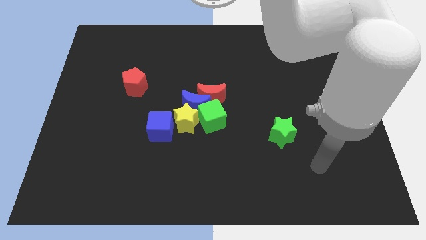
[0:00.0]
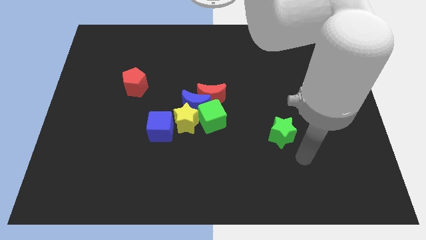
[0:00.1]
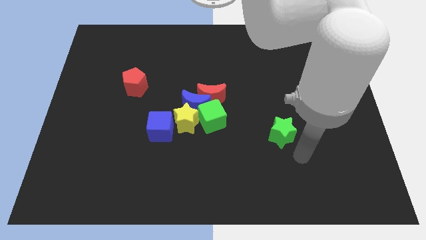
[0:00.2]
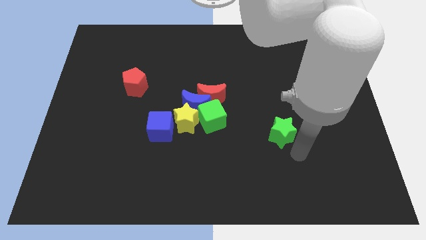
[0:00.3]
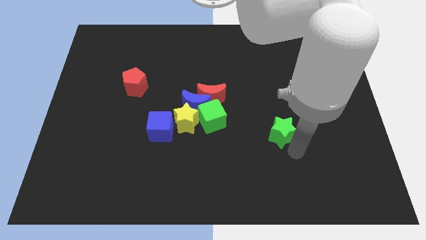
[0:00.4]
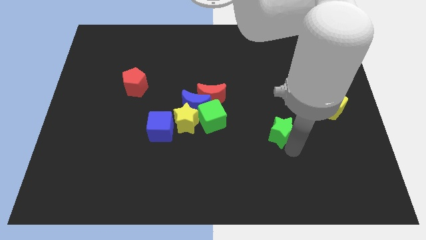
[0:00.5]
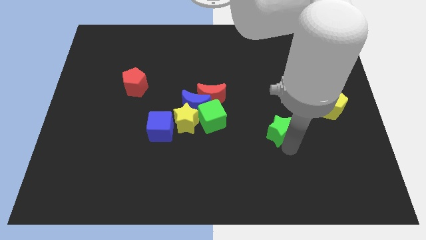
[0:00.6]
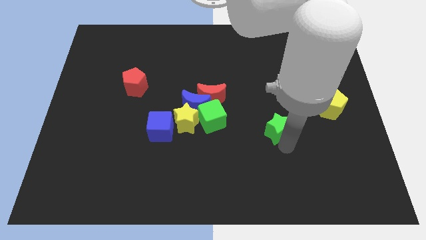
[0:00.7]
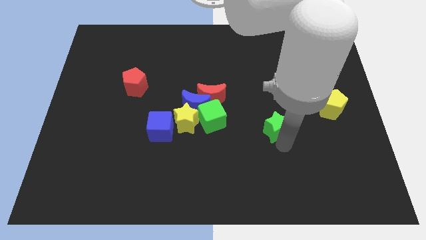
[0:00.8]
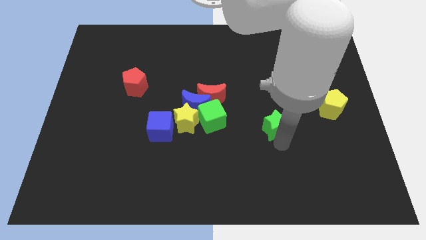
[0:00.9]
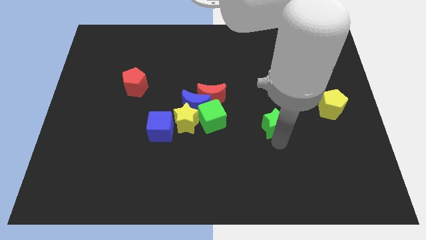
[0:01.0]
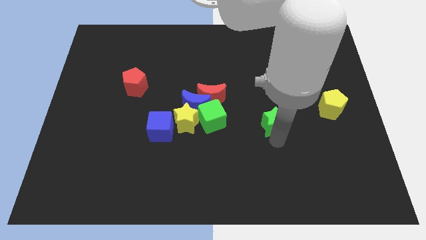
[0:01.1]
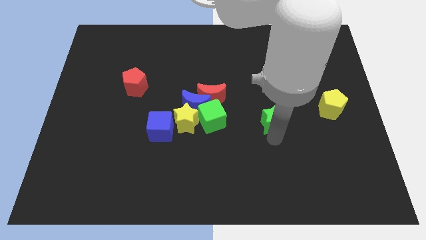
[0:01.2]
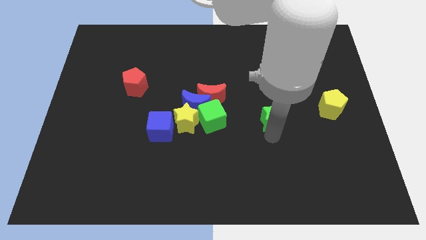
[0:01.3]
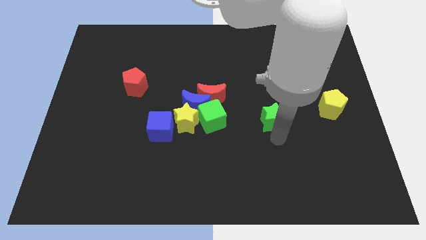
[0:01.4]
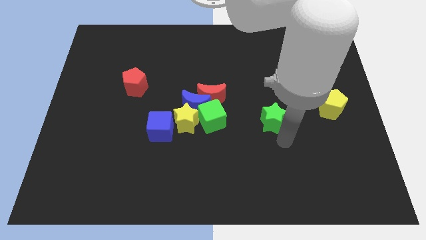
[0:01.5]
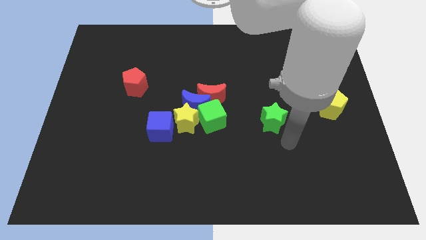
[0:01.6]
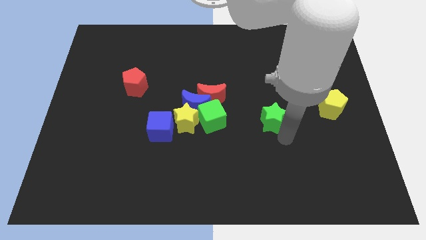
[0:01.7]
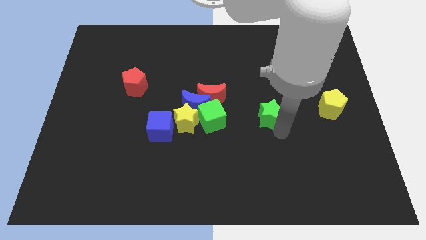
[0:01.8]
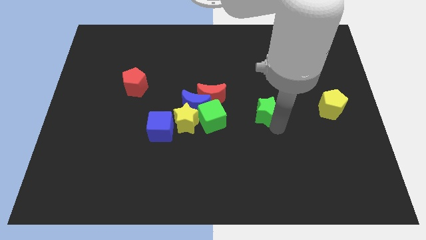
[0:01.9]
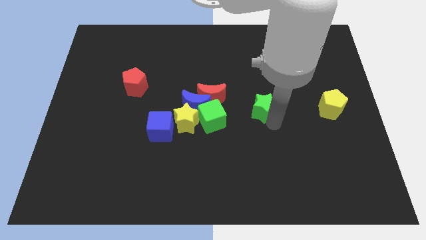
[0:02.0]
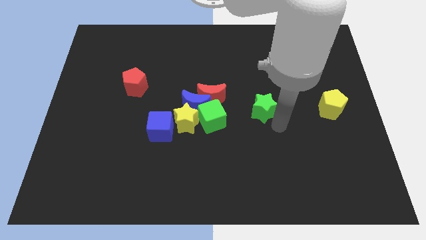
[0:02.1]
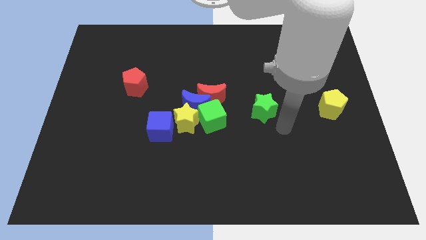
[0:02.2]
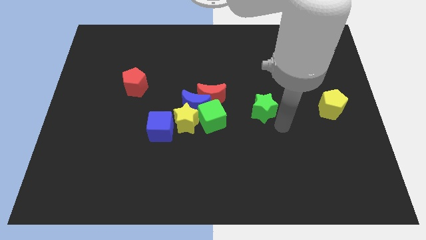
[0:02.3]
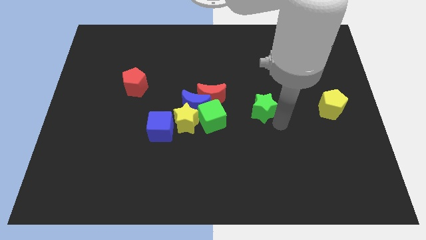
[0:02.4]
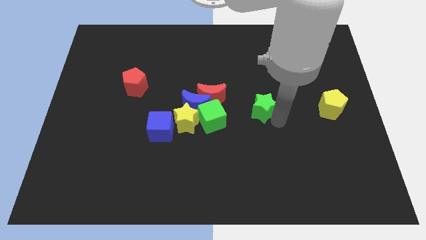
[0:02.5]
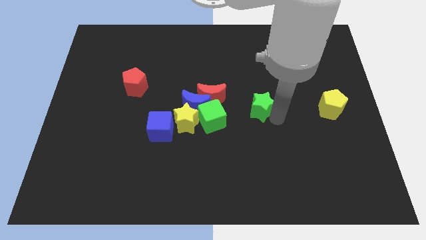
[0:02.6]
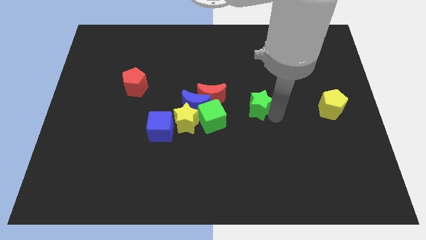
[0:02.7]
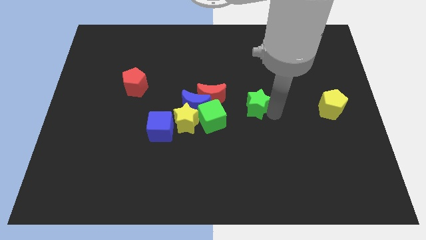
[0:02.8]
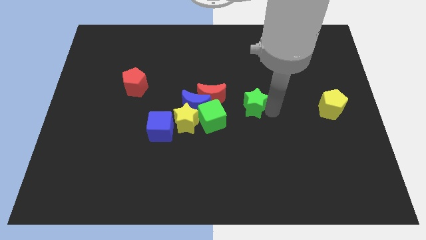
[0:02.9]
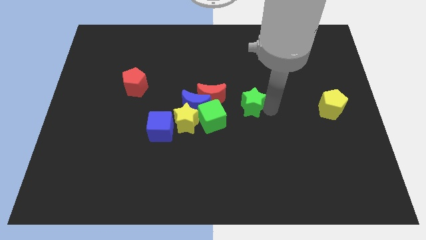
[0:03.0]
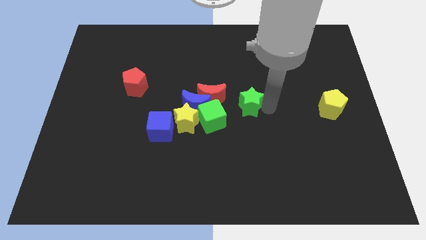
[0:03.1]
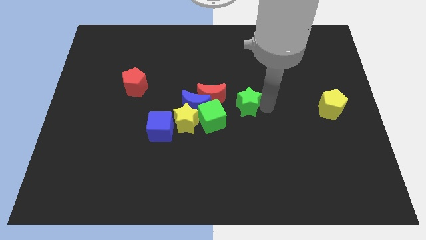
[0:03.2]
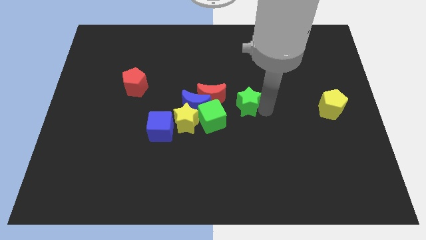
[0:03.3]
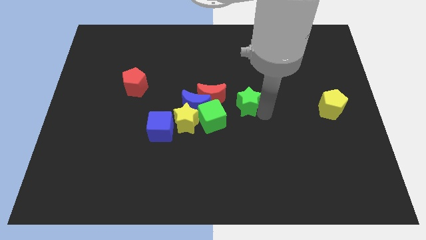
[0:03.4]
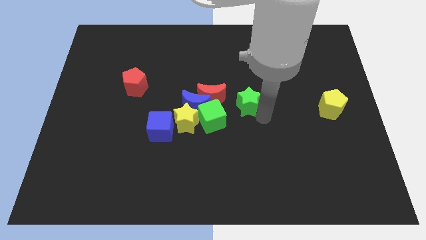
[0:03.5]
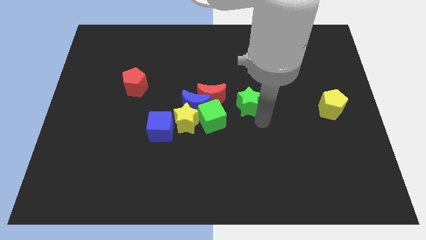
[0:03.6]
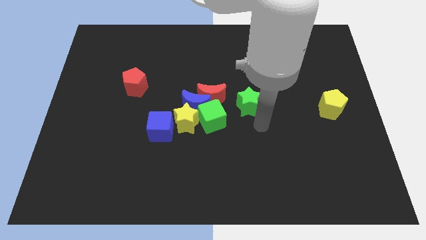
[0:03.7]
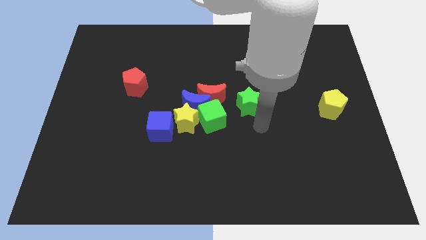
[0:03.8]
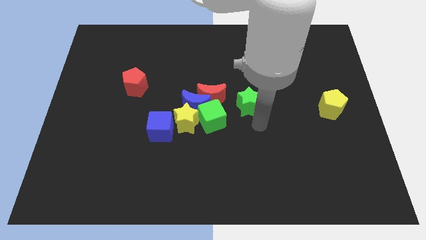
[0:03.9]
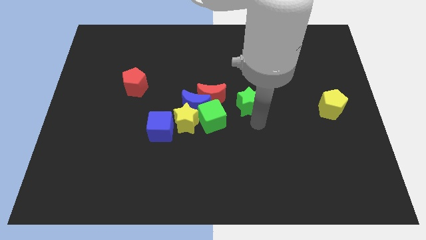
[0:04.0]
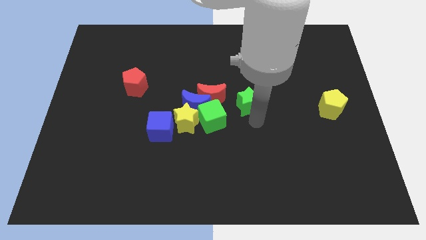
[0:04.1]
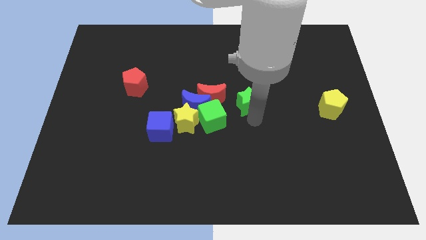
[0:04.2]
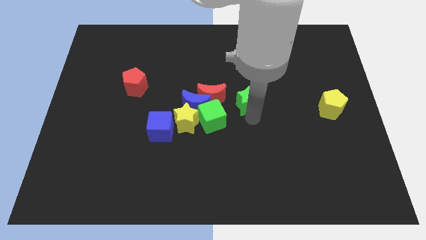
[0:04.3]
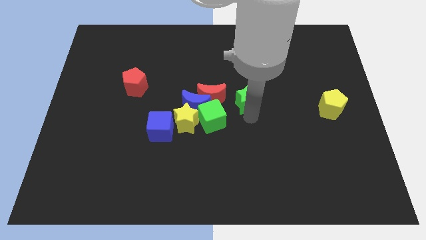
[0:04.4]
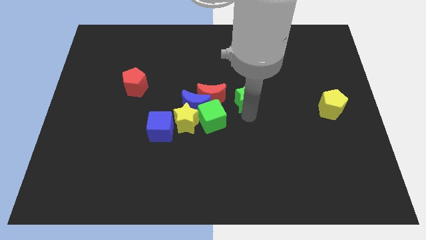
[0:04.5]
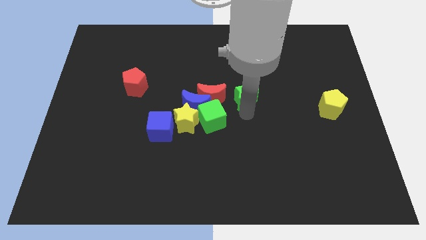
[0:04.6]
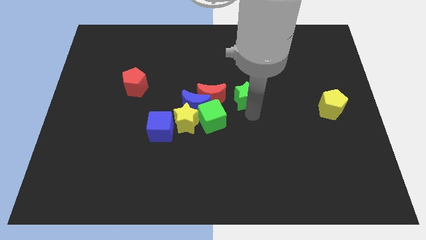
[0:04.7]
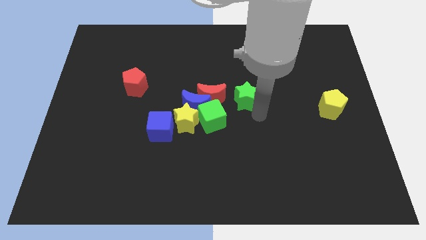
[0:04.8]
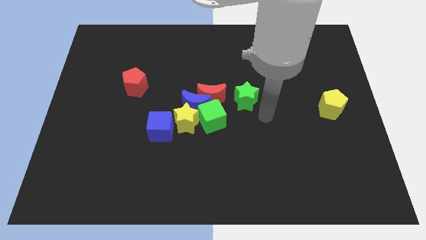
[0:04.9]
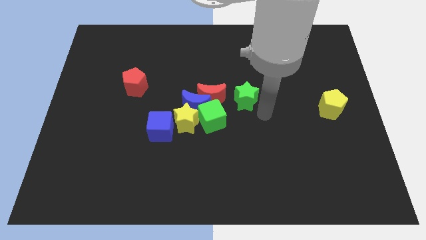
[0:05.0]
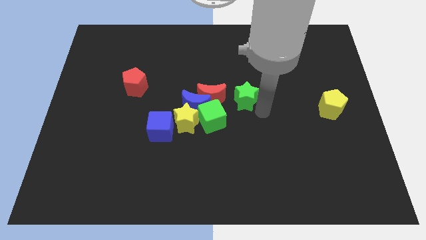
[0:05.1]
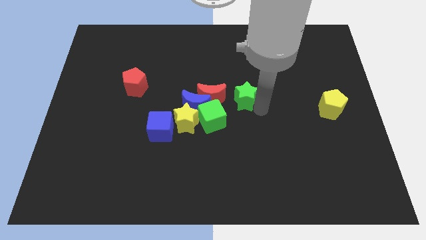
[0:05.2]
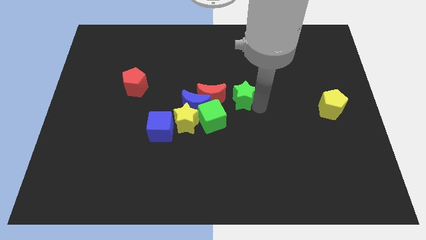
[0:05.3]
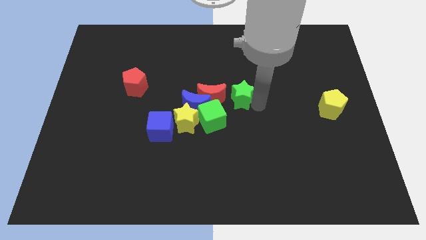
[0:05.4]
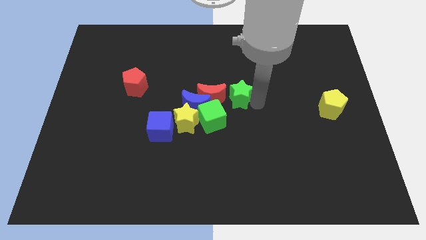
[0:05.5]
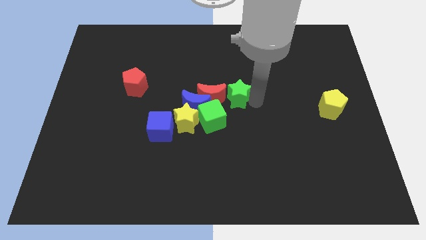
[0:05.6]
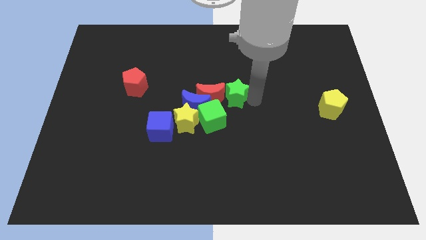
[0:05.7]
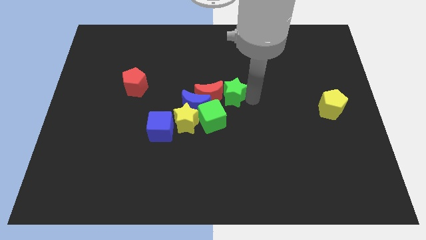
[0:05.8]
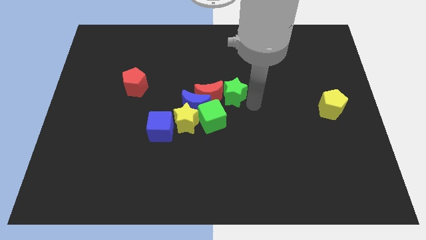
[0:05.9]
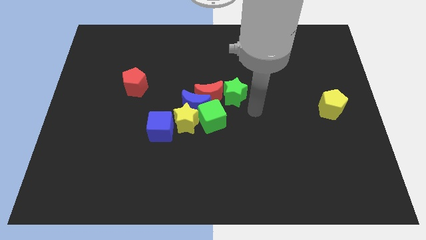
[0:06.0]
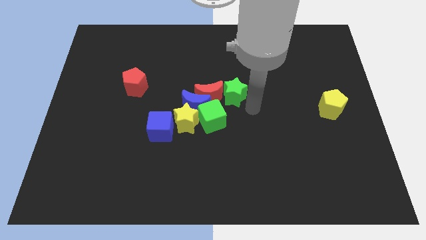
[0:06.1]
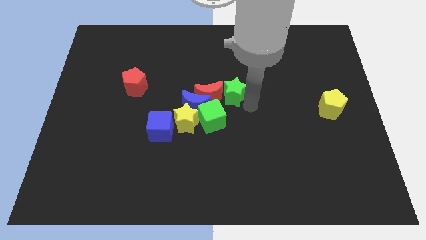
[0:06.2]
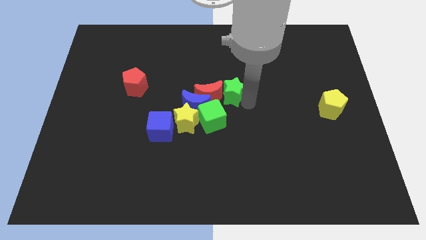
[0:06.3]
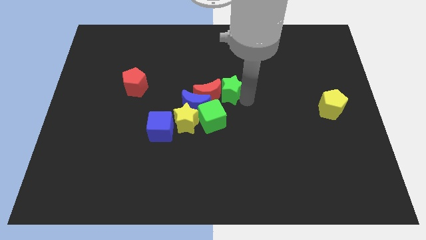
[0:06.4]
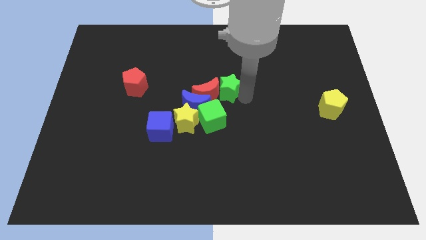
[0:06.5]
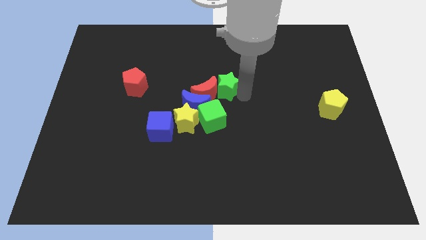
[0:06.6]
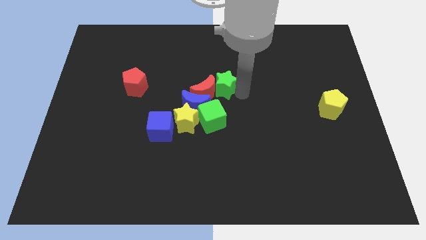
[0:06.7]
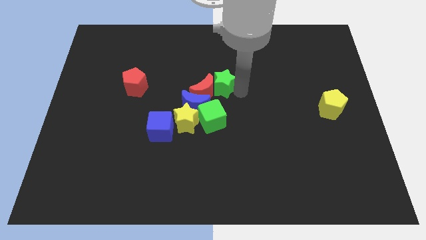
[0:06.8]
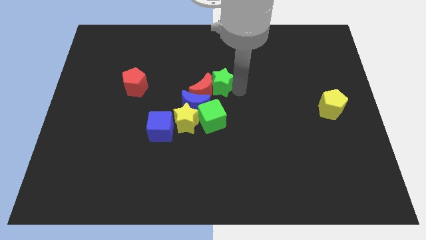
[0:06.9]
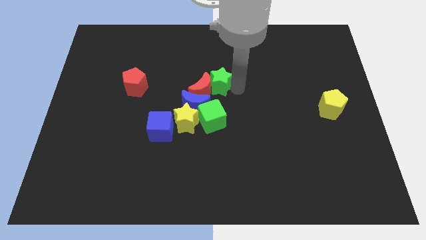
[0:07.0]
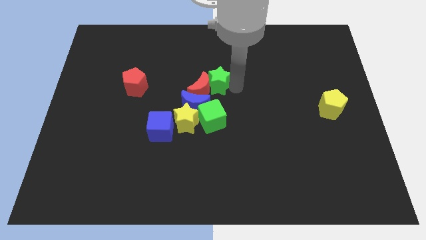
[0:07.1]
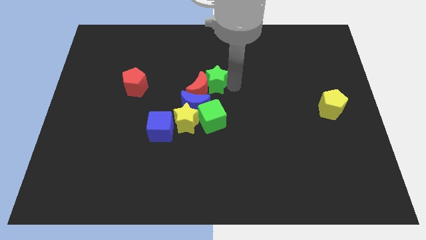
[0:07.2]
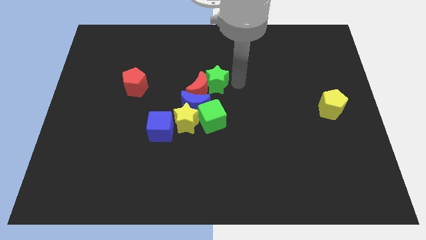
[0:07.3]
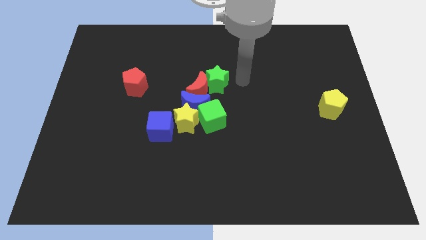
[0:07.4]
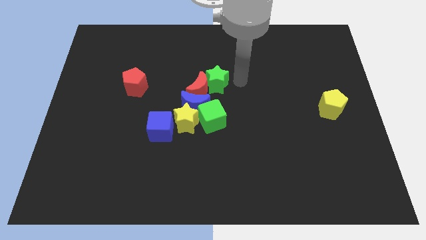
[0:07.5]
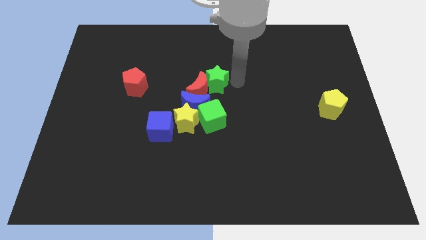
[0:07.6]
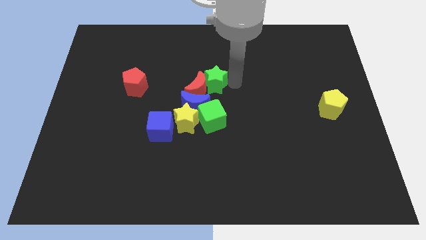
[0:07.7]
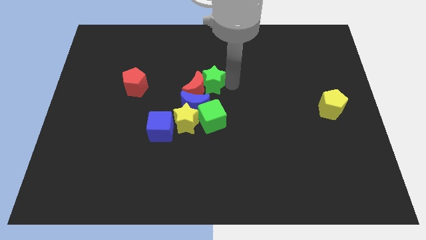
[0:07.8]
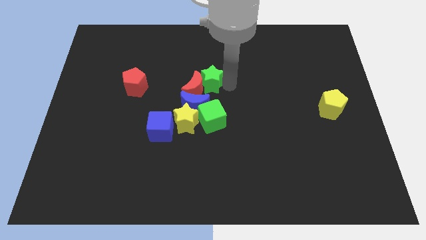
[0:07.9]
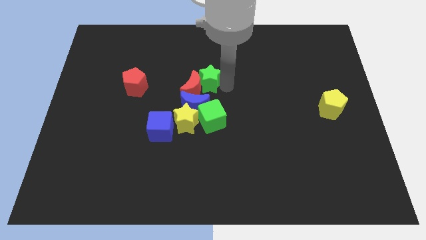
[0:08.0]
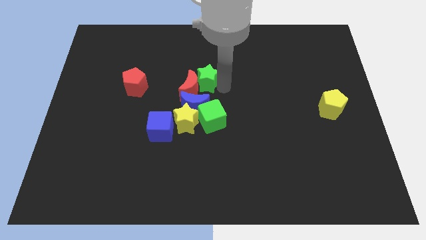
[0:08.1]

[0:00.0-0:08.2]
slide the green star to the top of the yellow star
